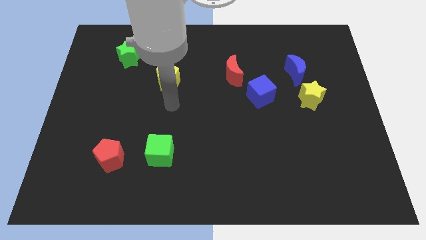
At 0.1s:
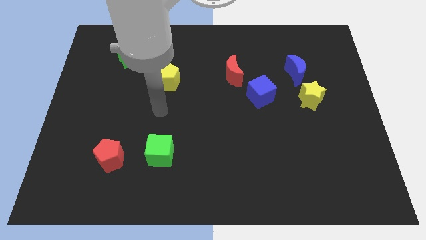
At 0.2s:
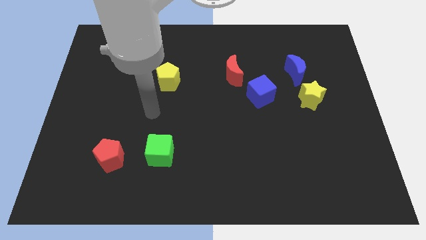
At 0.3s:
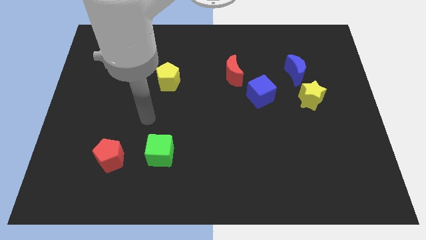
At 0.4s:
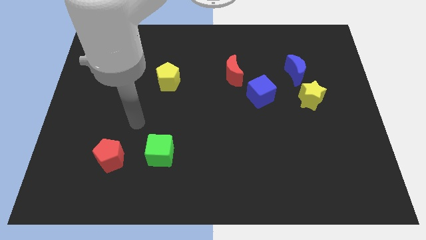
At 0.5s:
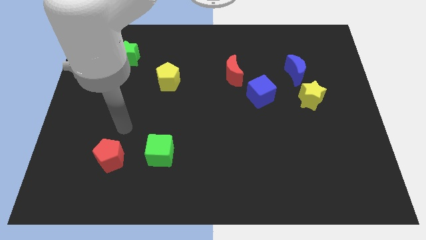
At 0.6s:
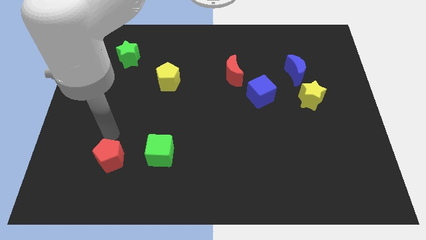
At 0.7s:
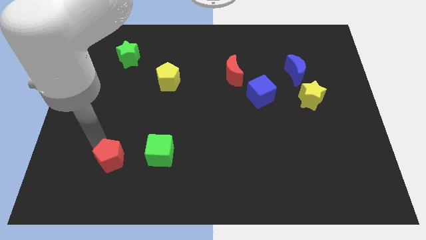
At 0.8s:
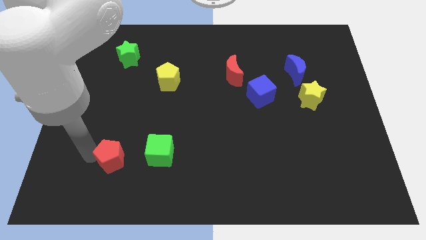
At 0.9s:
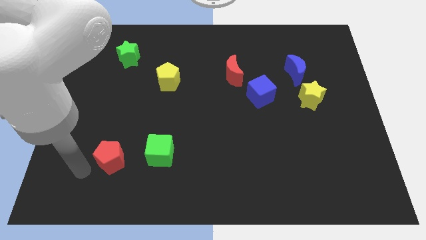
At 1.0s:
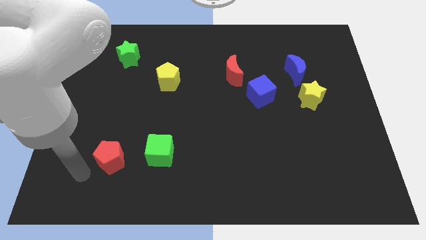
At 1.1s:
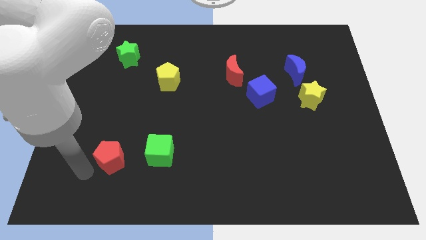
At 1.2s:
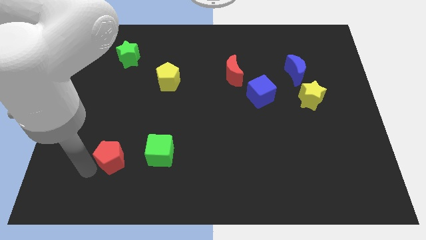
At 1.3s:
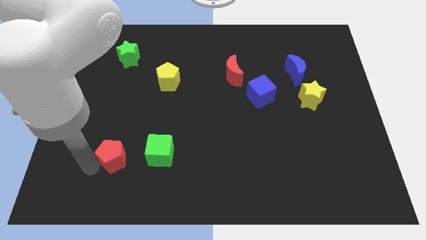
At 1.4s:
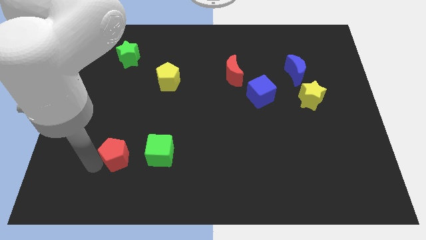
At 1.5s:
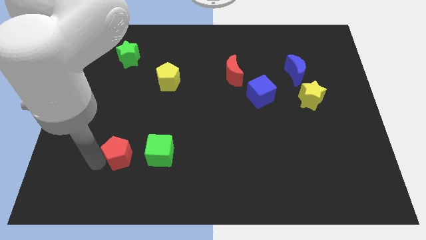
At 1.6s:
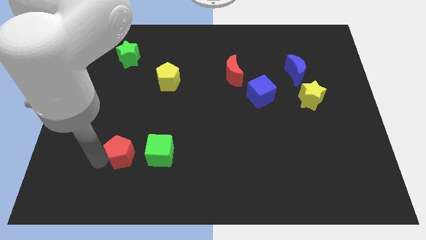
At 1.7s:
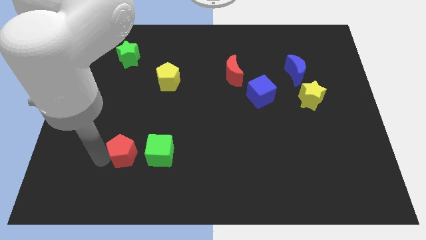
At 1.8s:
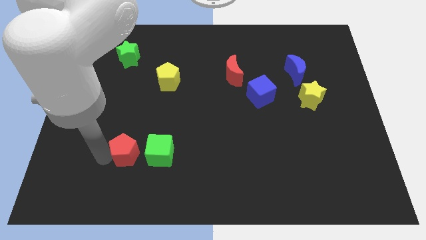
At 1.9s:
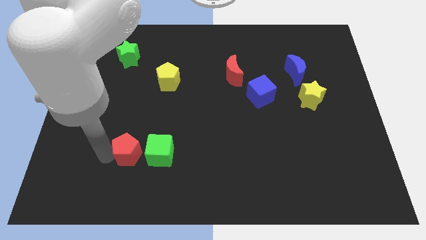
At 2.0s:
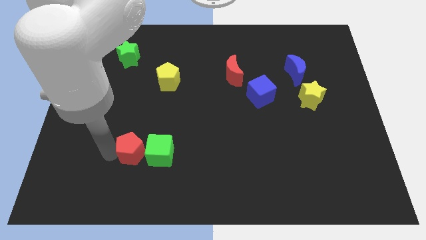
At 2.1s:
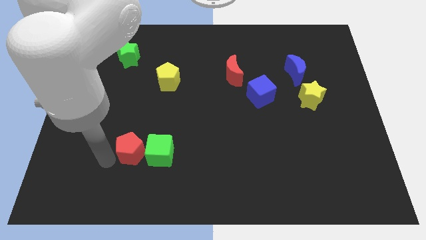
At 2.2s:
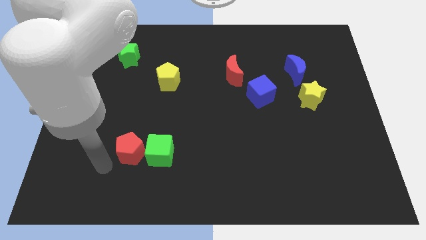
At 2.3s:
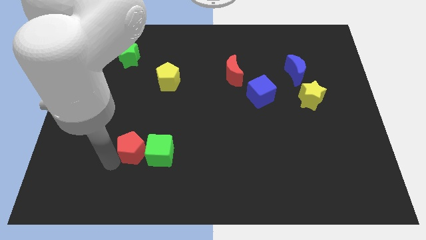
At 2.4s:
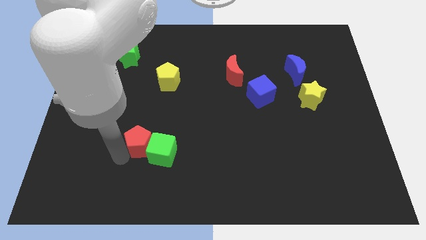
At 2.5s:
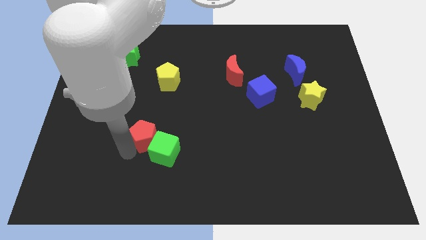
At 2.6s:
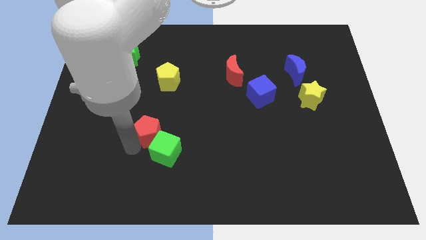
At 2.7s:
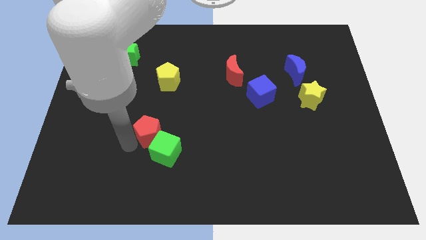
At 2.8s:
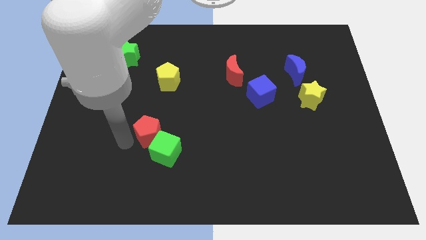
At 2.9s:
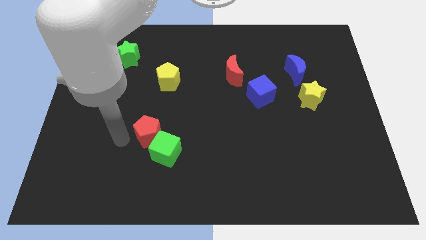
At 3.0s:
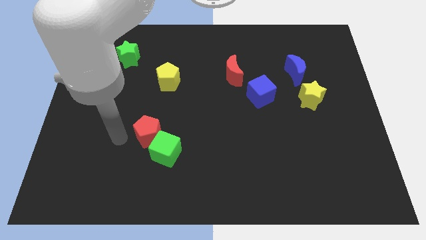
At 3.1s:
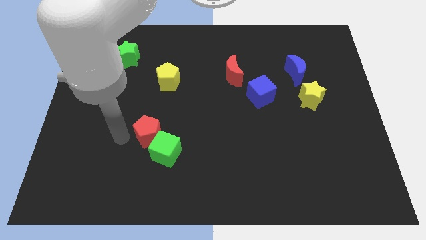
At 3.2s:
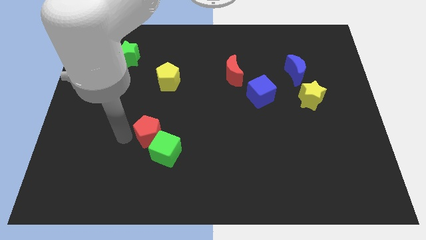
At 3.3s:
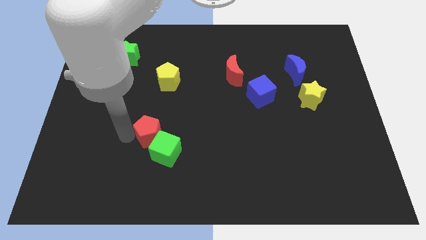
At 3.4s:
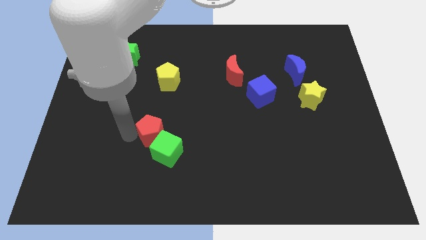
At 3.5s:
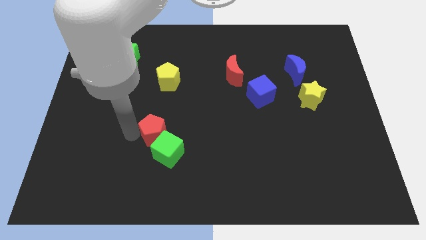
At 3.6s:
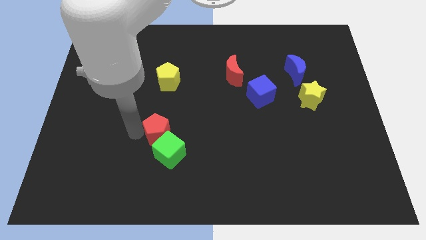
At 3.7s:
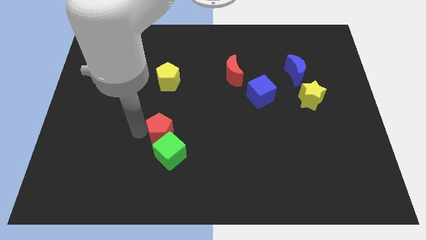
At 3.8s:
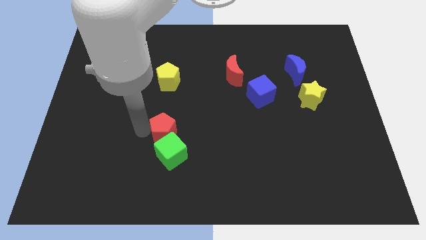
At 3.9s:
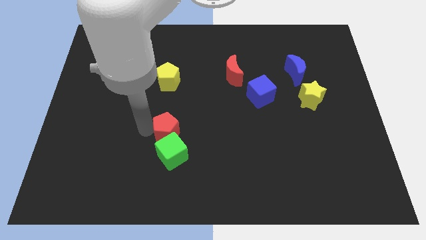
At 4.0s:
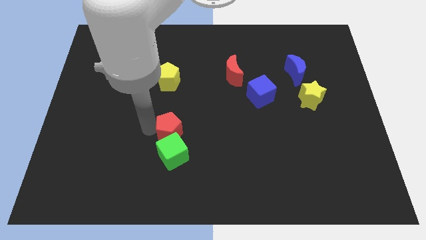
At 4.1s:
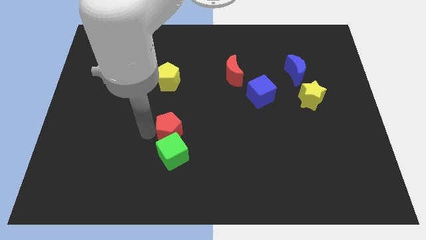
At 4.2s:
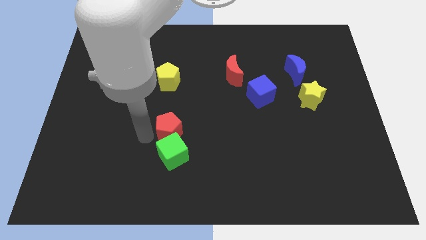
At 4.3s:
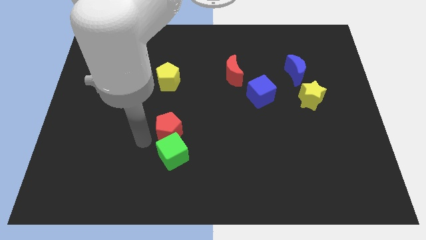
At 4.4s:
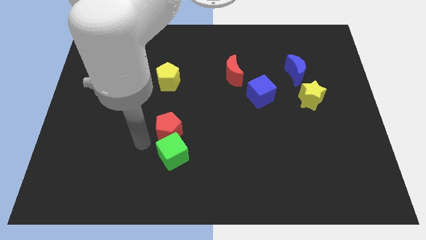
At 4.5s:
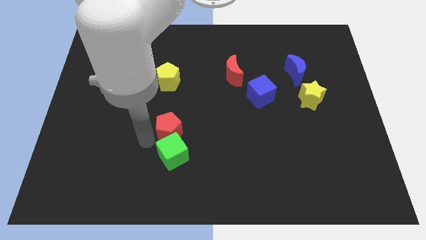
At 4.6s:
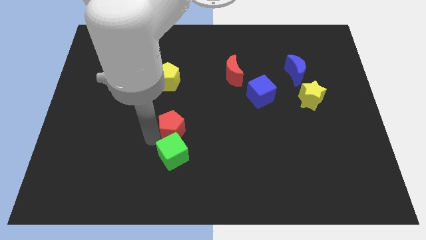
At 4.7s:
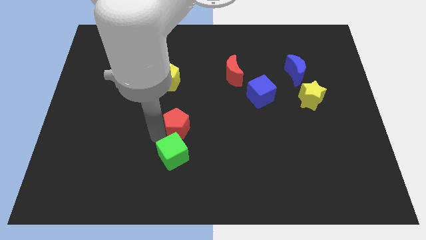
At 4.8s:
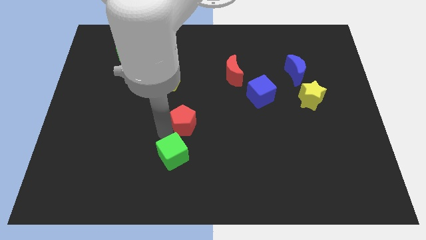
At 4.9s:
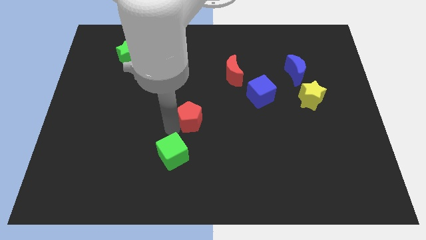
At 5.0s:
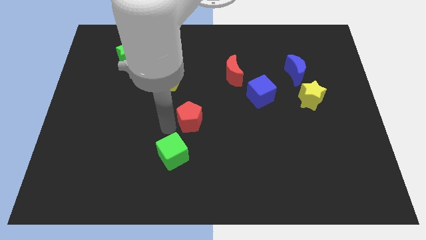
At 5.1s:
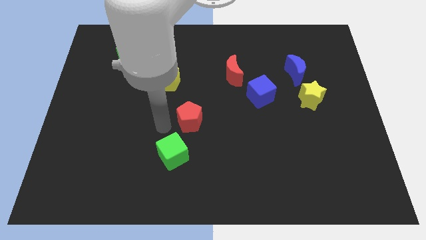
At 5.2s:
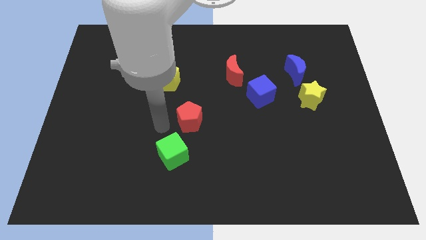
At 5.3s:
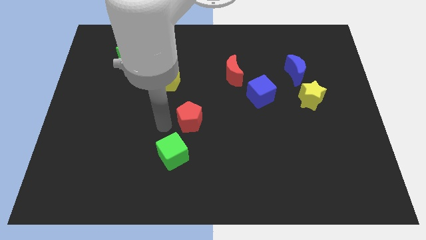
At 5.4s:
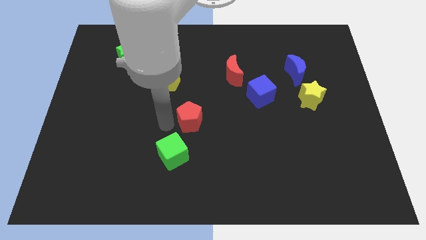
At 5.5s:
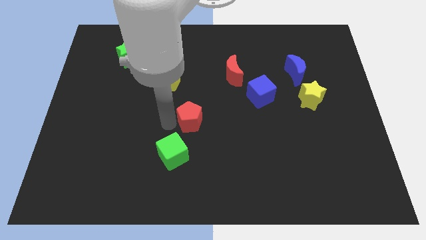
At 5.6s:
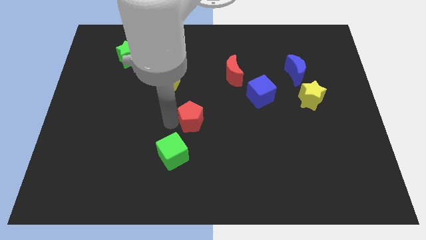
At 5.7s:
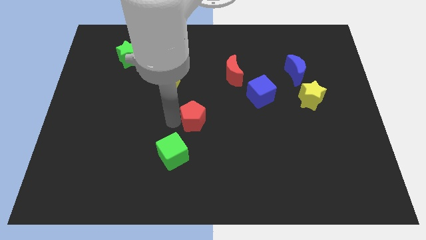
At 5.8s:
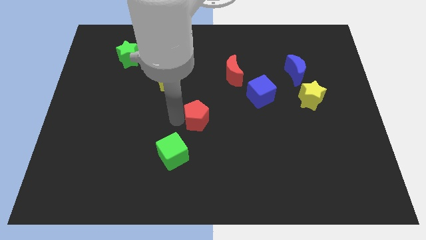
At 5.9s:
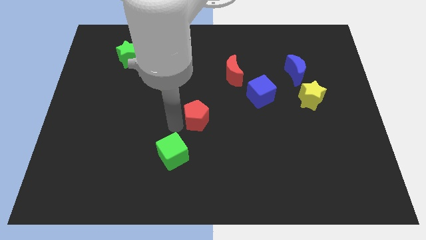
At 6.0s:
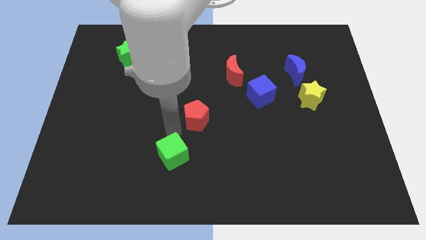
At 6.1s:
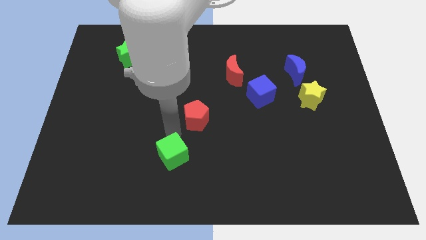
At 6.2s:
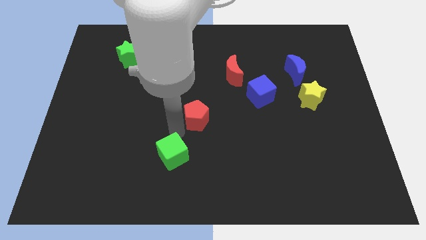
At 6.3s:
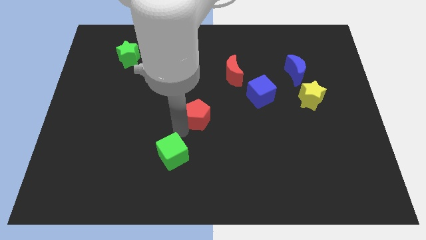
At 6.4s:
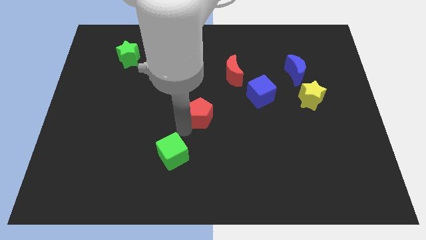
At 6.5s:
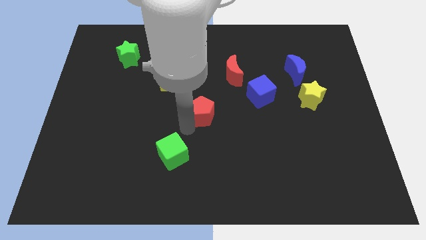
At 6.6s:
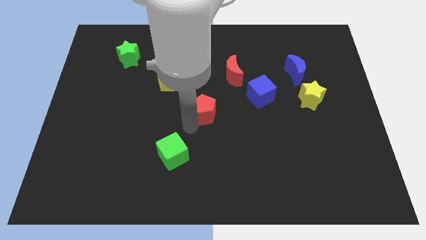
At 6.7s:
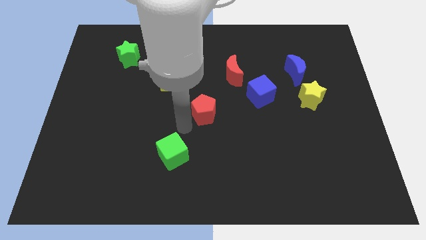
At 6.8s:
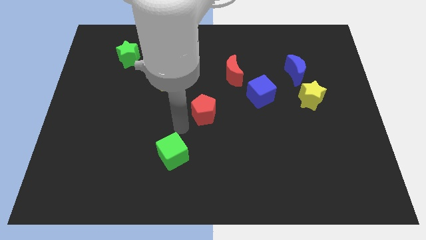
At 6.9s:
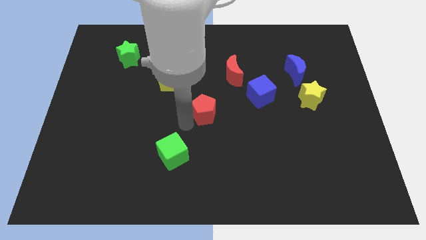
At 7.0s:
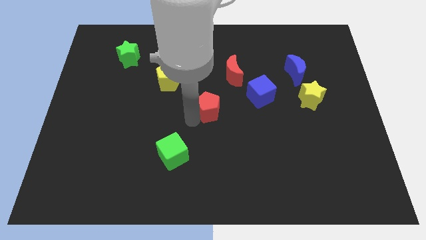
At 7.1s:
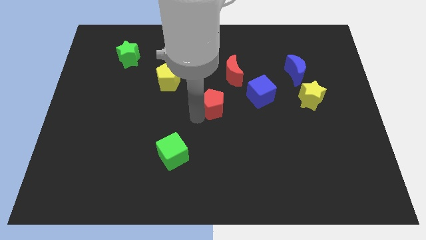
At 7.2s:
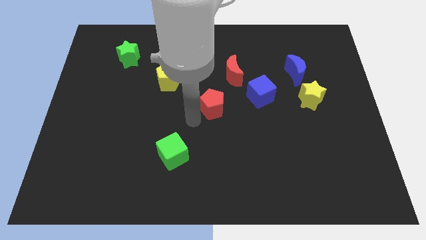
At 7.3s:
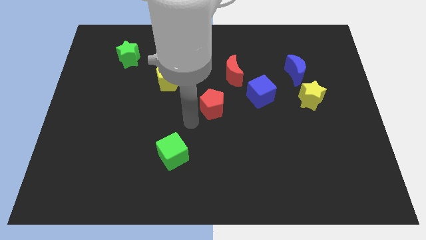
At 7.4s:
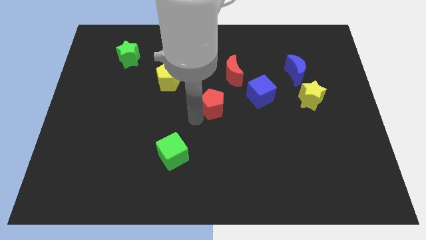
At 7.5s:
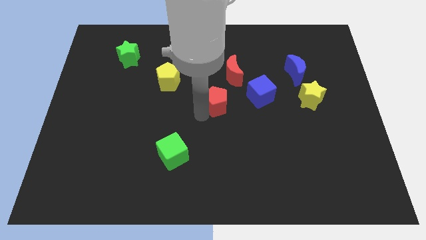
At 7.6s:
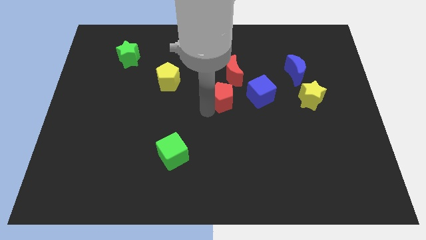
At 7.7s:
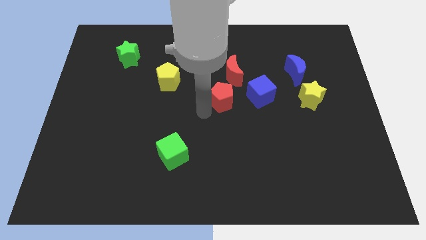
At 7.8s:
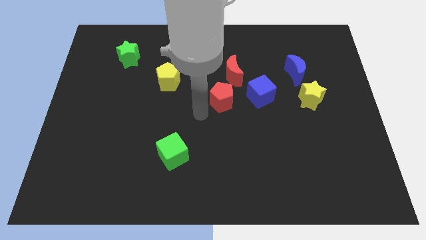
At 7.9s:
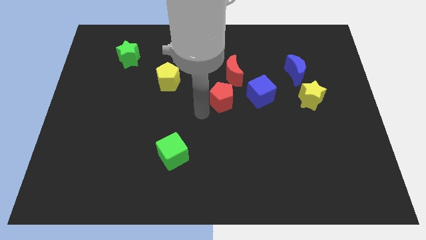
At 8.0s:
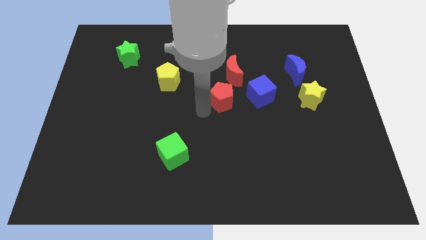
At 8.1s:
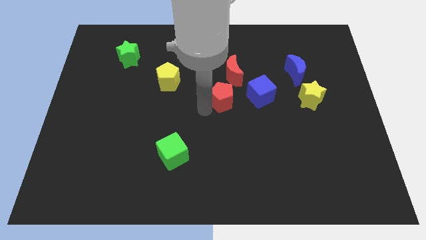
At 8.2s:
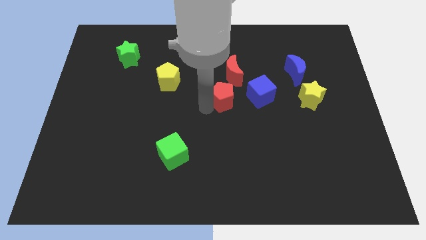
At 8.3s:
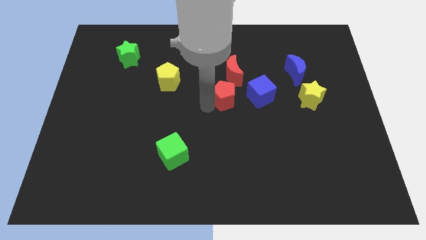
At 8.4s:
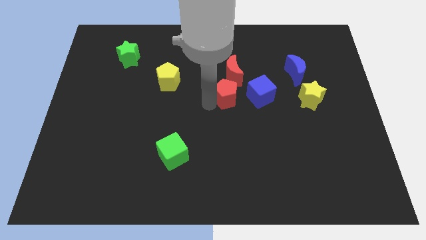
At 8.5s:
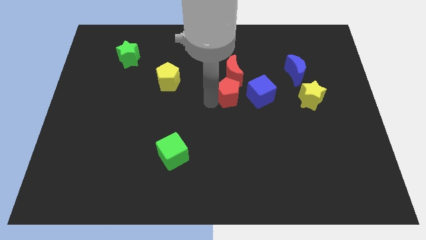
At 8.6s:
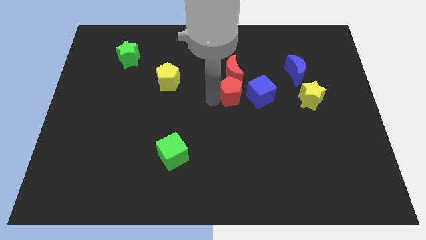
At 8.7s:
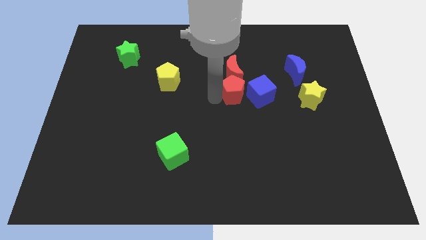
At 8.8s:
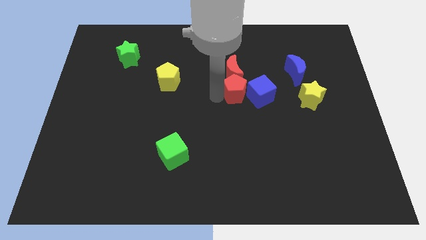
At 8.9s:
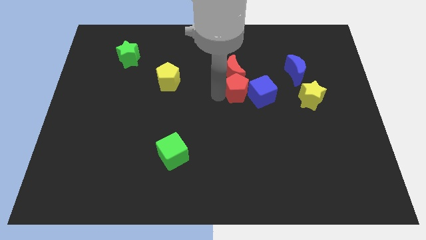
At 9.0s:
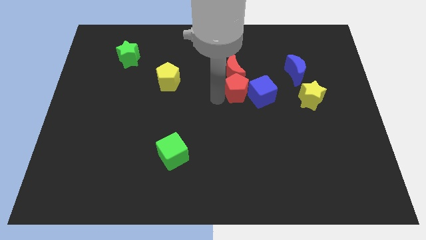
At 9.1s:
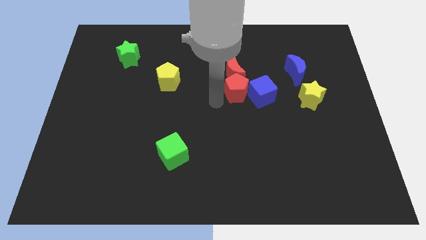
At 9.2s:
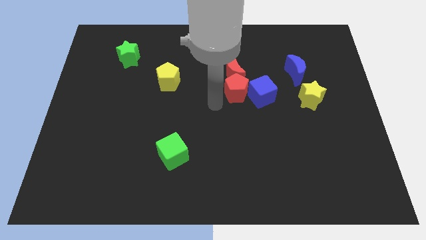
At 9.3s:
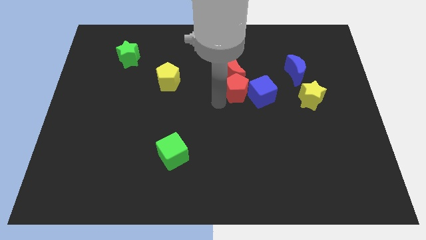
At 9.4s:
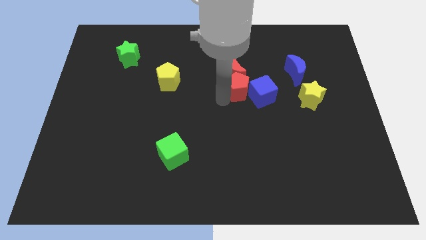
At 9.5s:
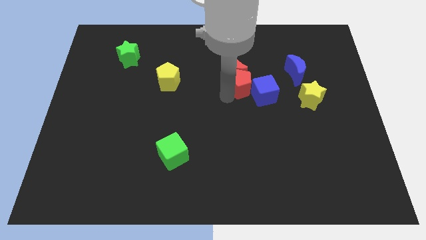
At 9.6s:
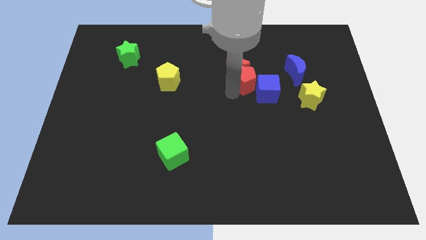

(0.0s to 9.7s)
move the red pentagon to the left side of the blue moon
